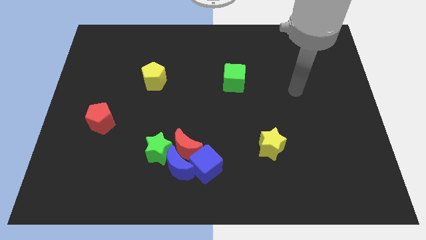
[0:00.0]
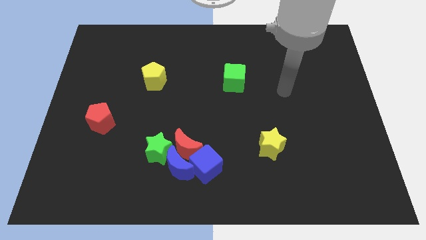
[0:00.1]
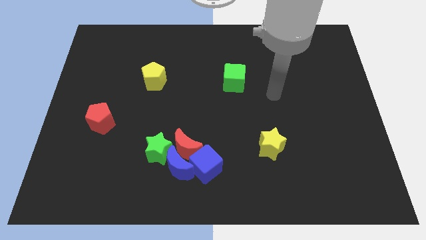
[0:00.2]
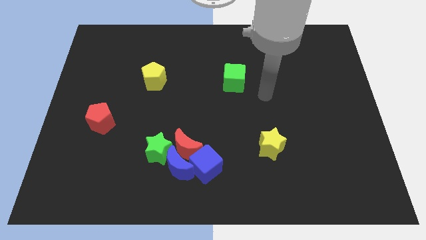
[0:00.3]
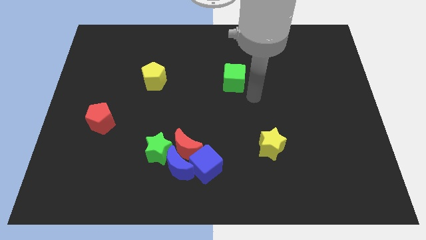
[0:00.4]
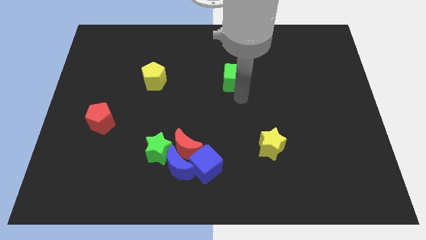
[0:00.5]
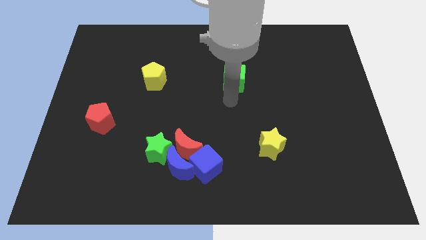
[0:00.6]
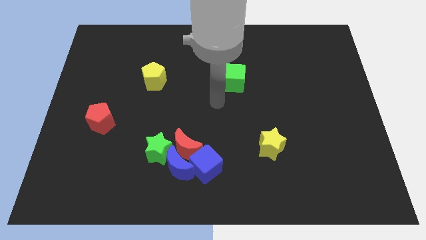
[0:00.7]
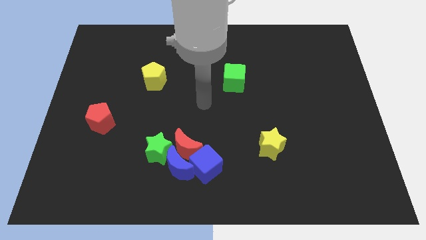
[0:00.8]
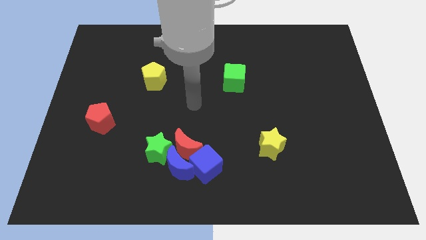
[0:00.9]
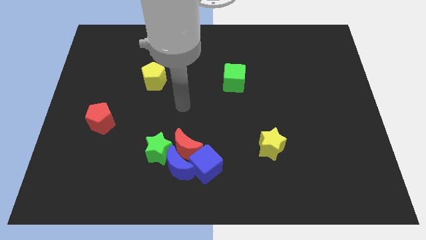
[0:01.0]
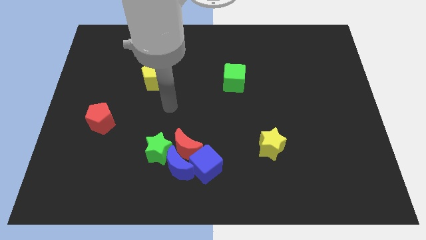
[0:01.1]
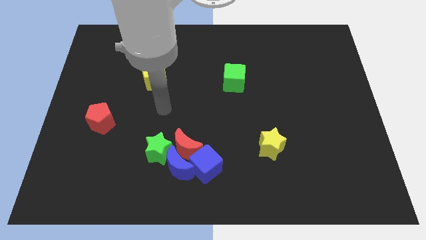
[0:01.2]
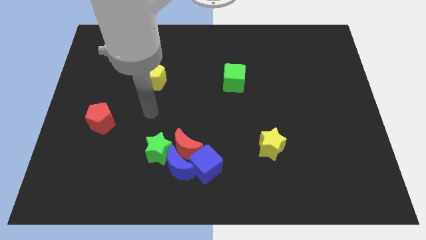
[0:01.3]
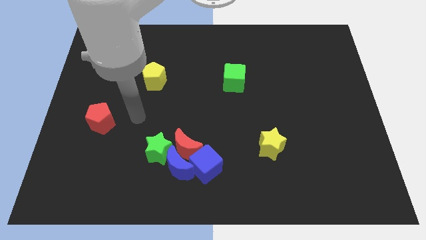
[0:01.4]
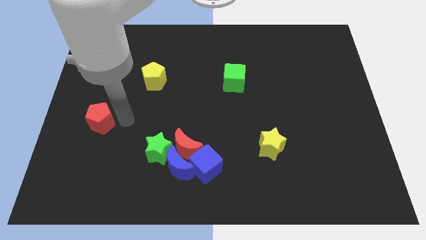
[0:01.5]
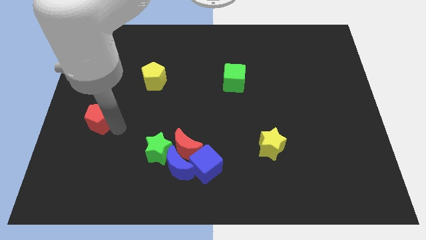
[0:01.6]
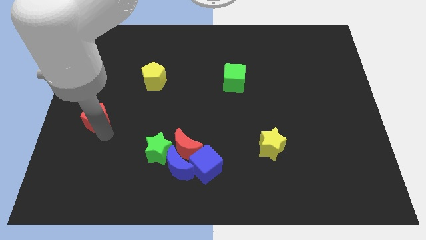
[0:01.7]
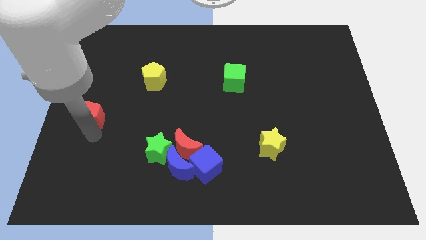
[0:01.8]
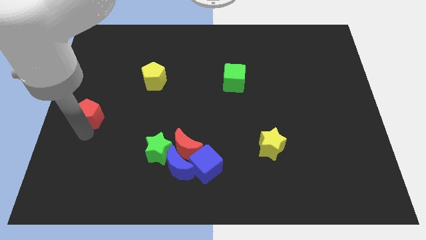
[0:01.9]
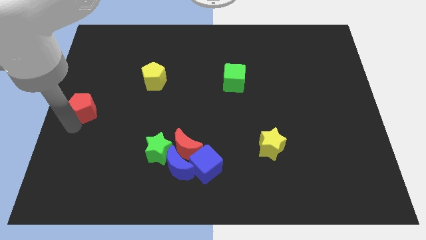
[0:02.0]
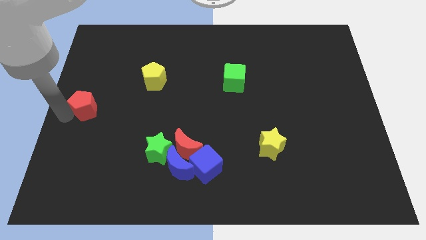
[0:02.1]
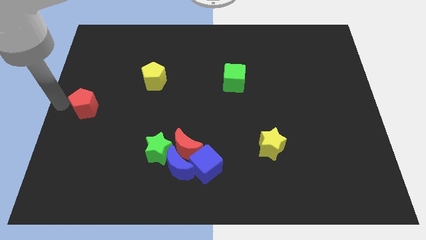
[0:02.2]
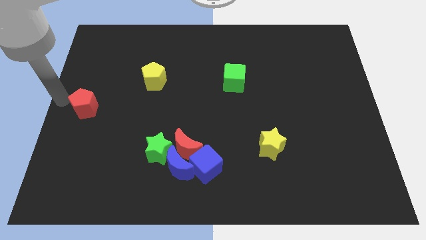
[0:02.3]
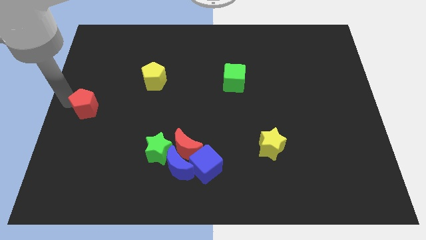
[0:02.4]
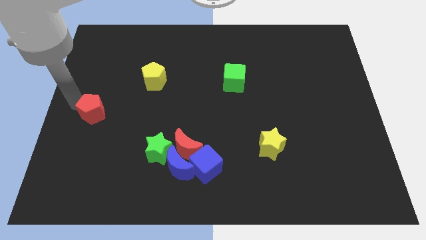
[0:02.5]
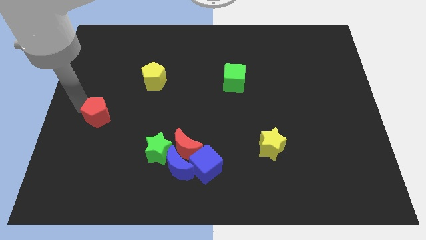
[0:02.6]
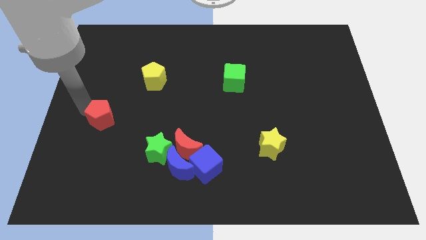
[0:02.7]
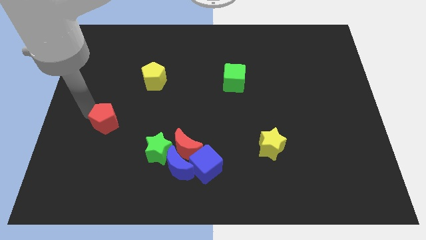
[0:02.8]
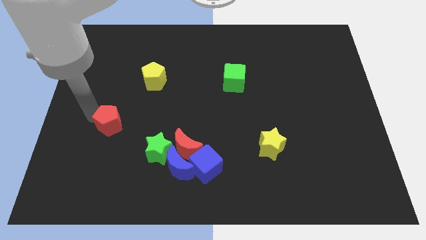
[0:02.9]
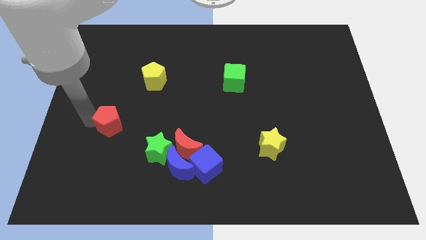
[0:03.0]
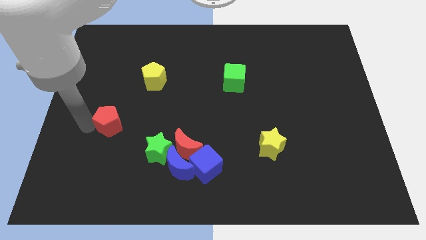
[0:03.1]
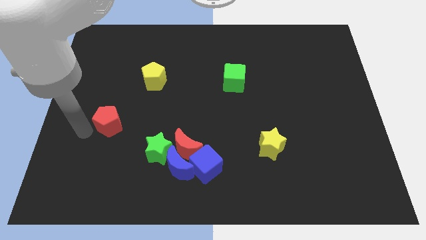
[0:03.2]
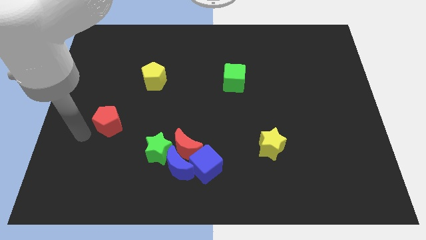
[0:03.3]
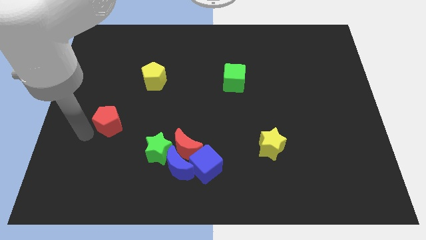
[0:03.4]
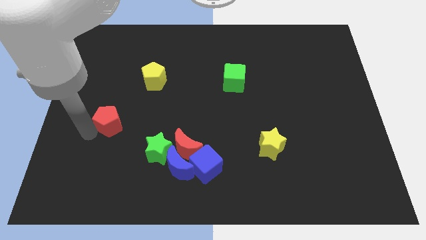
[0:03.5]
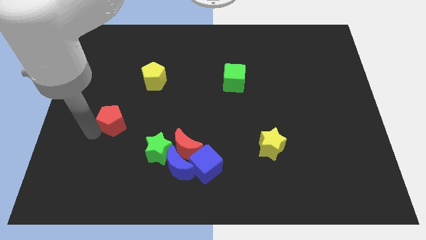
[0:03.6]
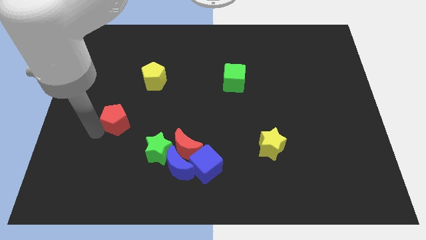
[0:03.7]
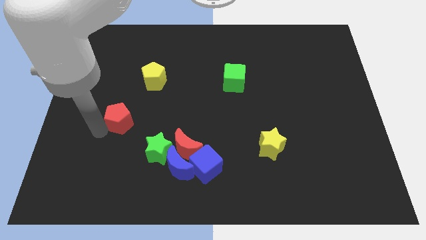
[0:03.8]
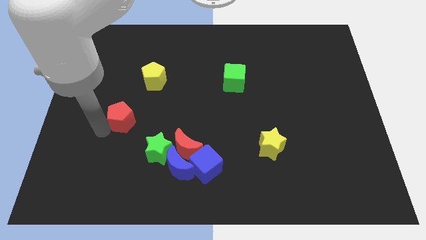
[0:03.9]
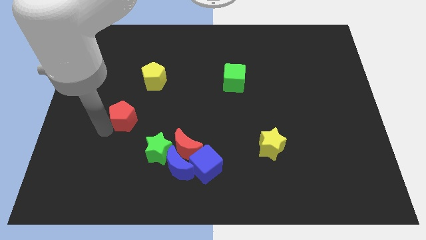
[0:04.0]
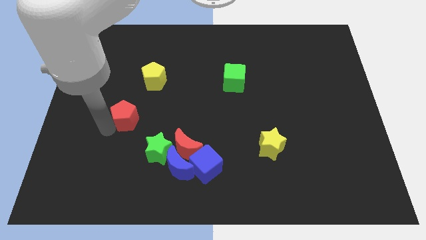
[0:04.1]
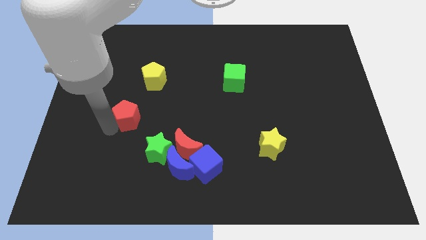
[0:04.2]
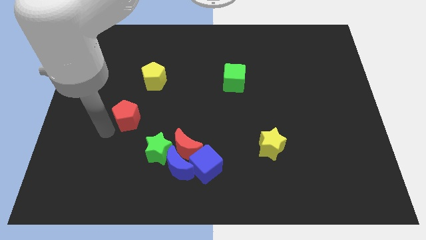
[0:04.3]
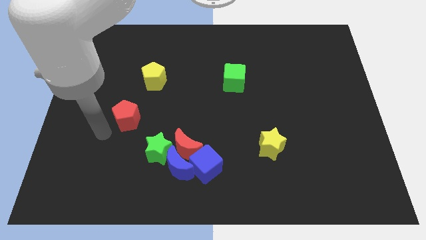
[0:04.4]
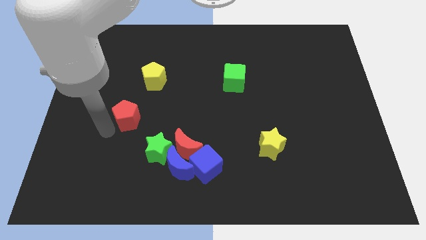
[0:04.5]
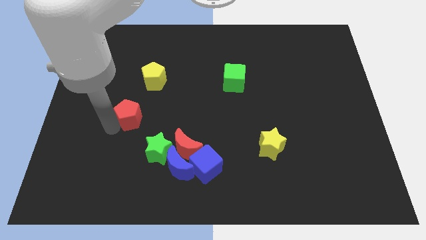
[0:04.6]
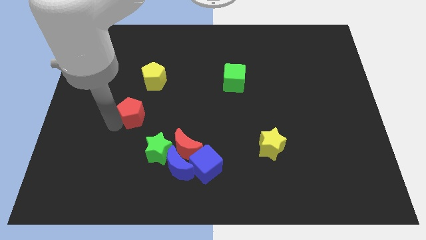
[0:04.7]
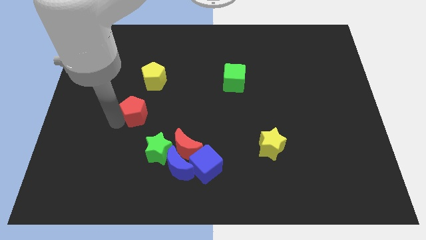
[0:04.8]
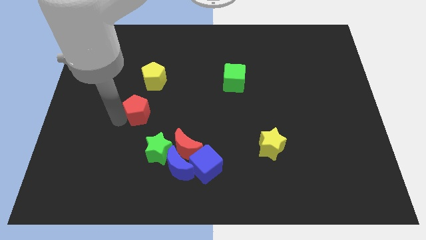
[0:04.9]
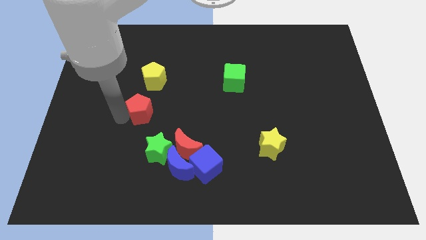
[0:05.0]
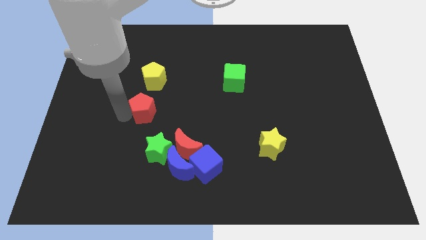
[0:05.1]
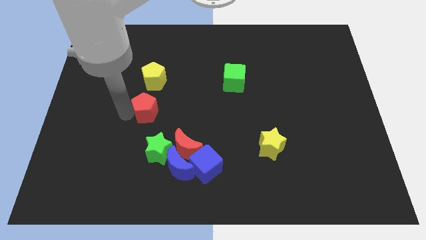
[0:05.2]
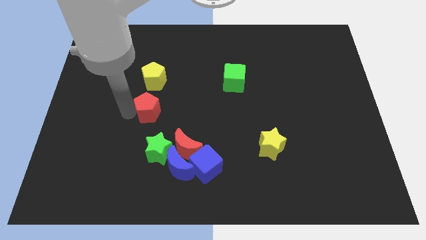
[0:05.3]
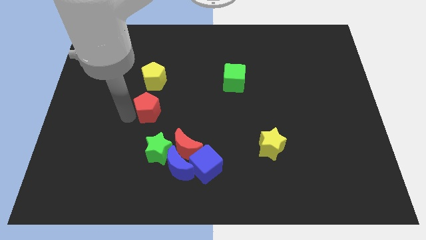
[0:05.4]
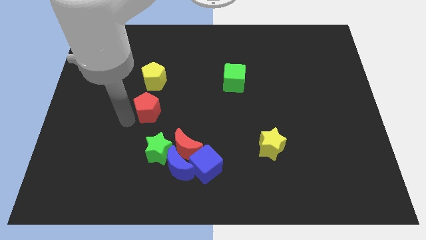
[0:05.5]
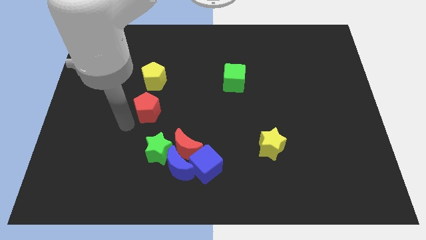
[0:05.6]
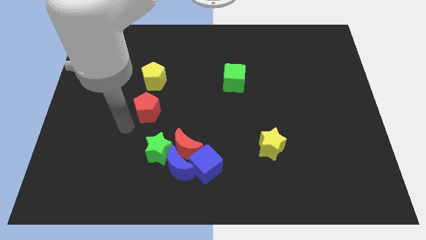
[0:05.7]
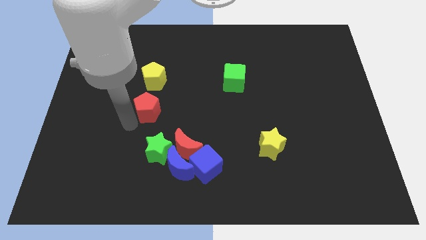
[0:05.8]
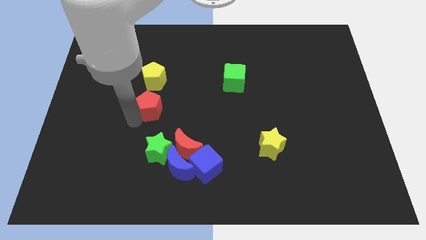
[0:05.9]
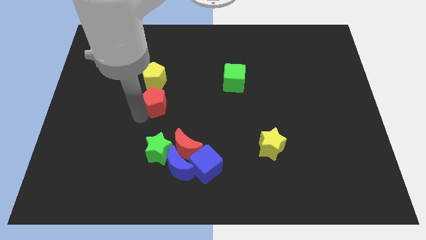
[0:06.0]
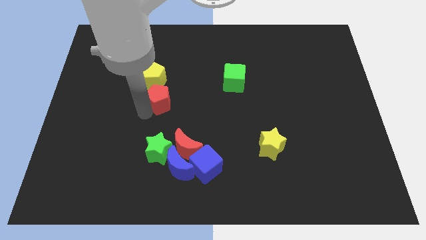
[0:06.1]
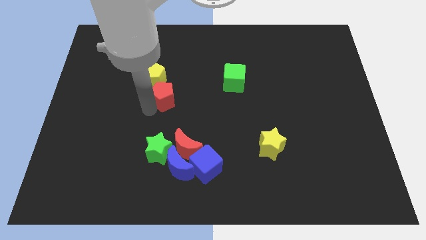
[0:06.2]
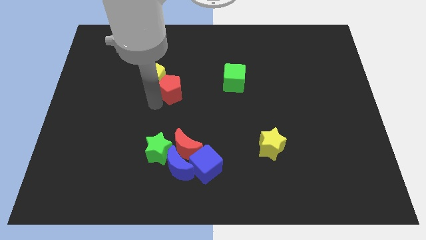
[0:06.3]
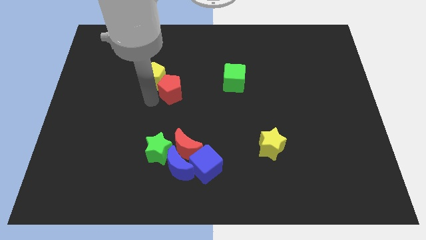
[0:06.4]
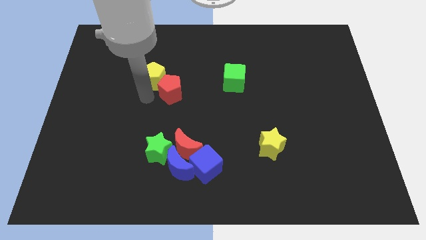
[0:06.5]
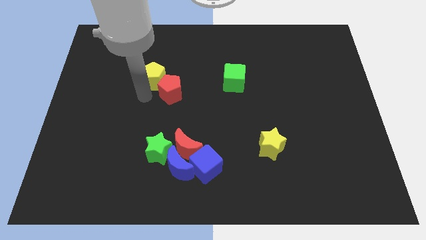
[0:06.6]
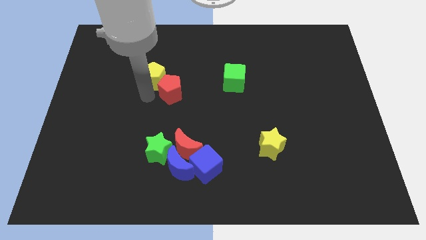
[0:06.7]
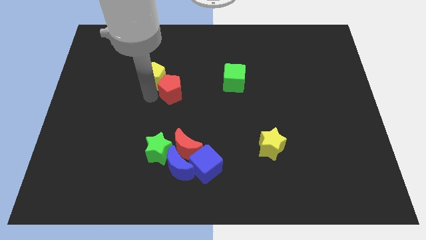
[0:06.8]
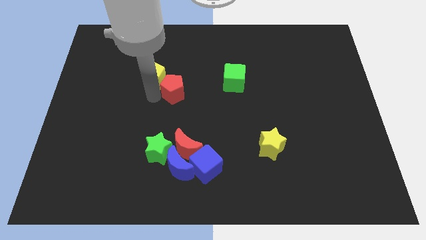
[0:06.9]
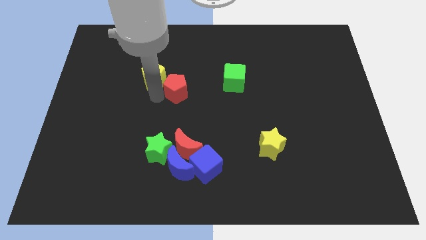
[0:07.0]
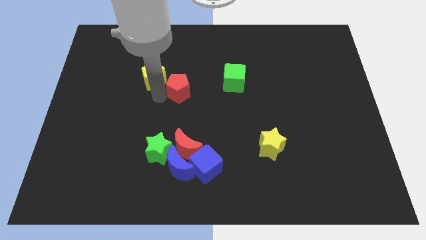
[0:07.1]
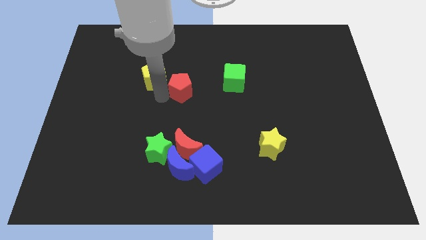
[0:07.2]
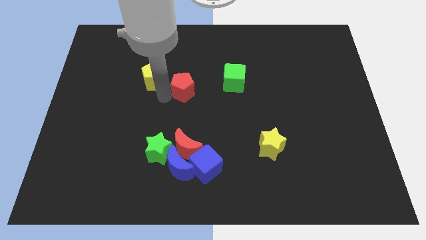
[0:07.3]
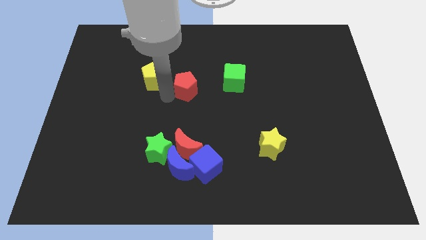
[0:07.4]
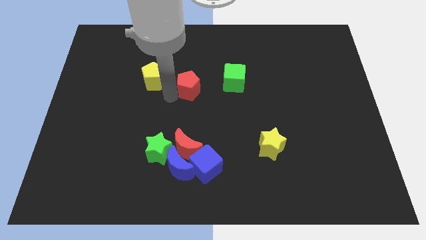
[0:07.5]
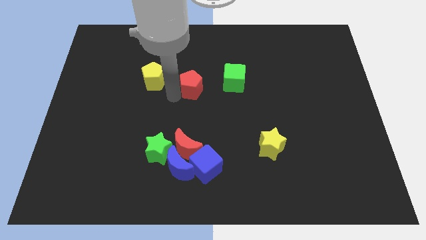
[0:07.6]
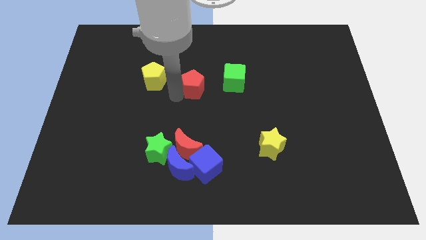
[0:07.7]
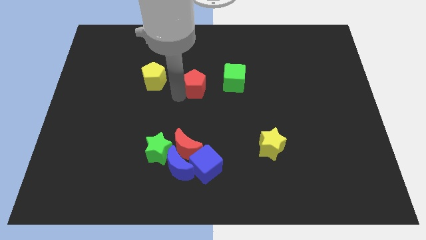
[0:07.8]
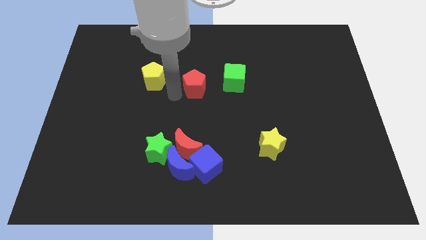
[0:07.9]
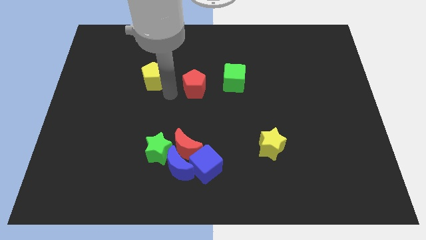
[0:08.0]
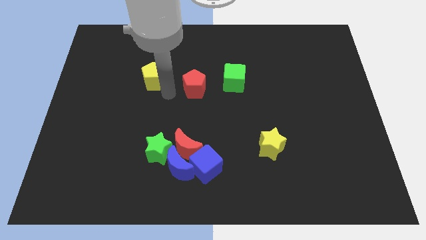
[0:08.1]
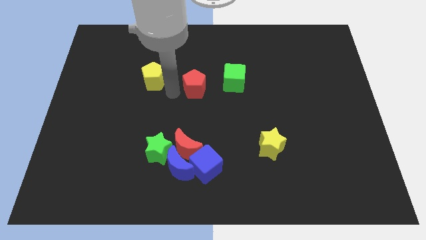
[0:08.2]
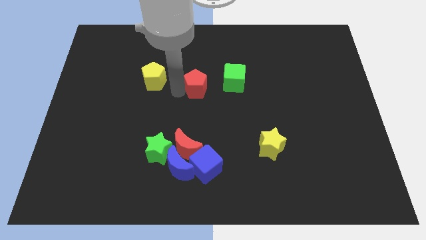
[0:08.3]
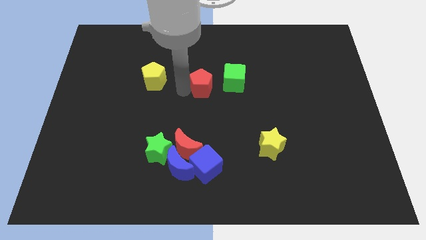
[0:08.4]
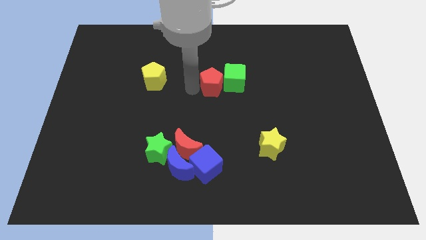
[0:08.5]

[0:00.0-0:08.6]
push the red pentagon to the green cube
